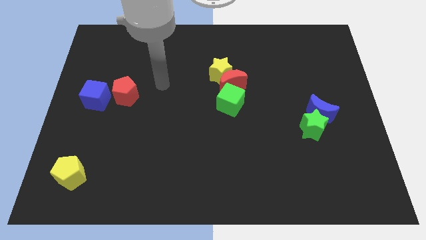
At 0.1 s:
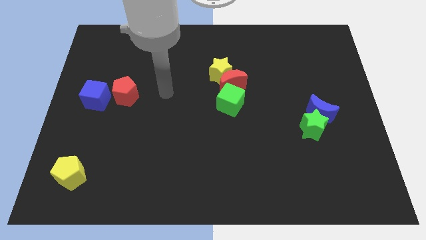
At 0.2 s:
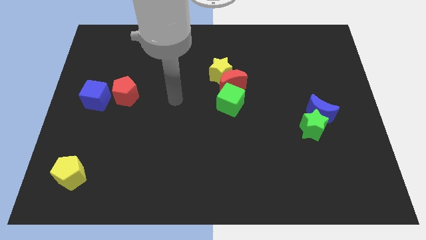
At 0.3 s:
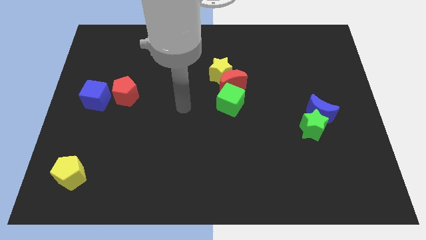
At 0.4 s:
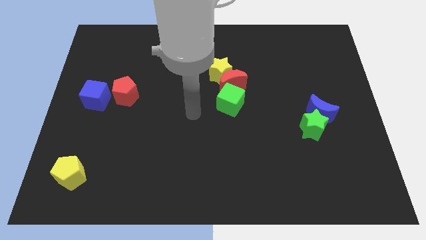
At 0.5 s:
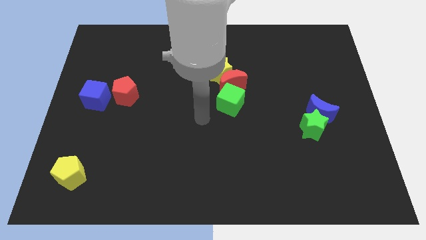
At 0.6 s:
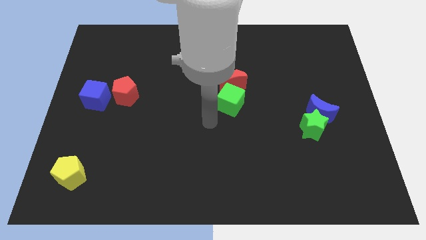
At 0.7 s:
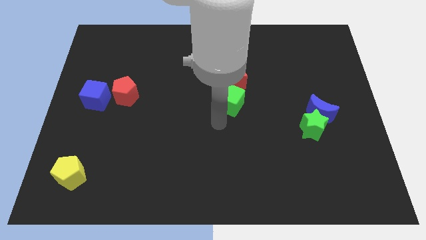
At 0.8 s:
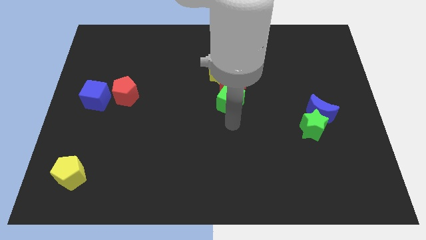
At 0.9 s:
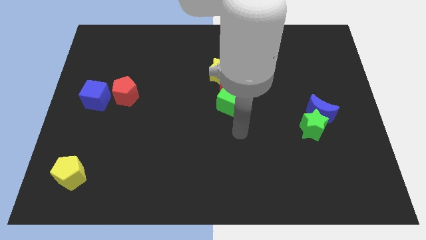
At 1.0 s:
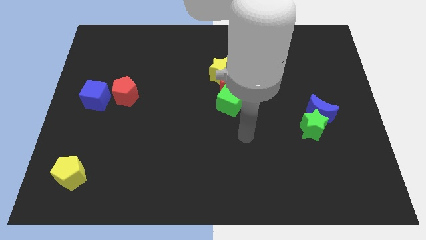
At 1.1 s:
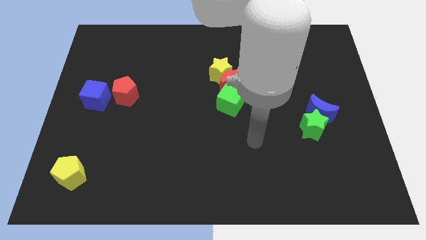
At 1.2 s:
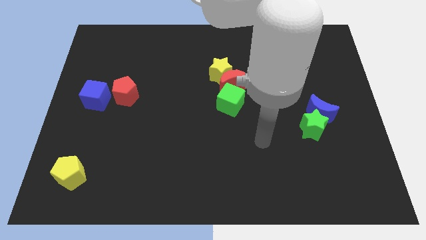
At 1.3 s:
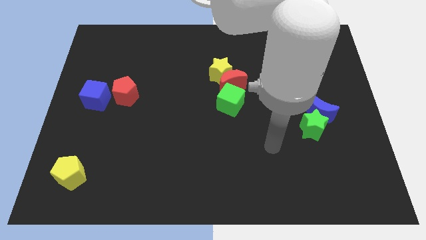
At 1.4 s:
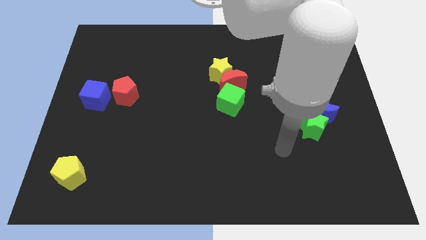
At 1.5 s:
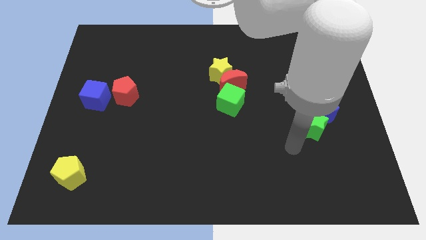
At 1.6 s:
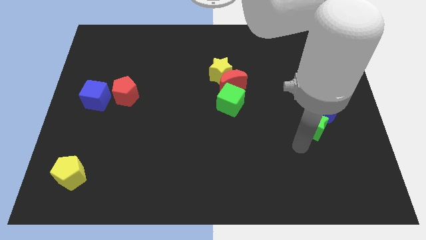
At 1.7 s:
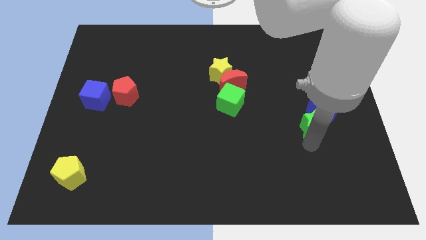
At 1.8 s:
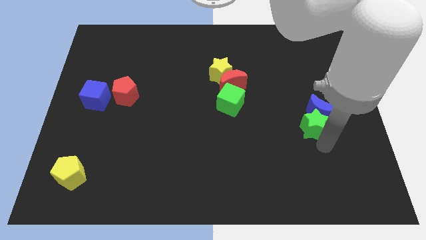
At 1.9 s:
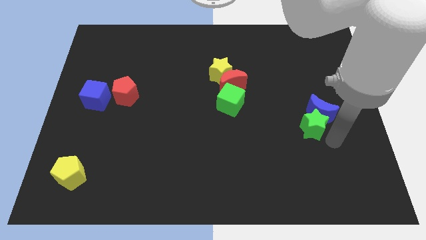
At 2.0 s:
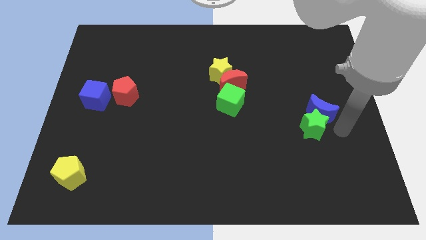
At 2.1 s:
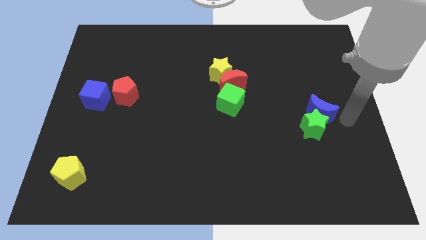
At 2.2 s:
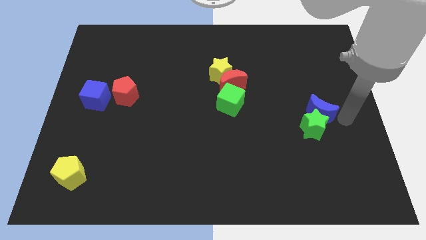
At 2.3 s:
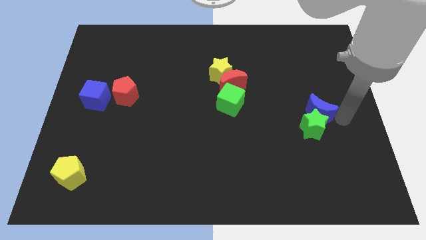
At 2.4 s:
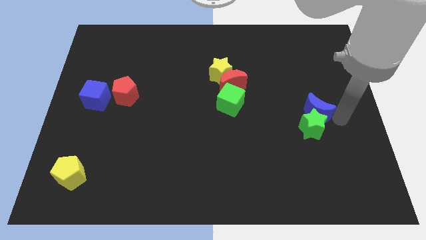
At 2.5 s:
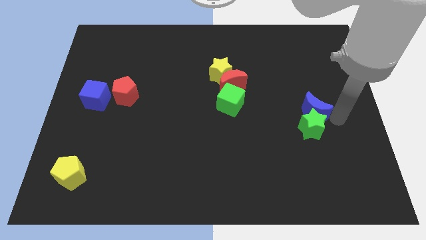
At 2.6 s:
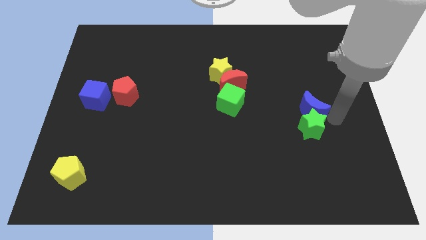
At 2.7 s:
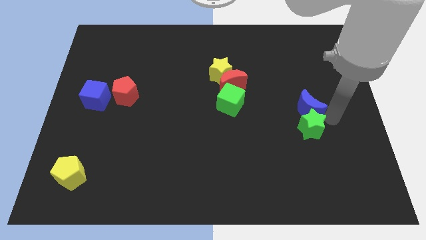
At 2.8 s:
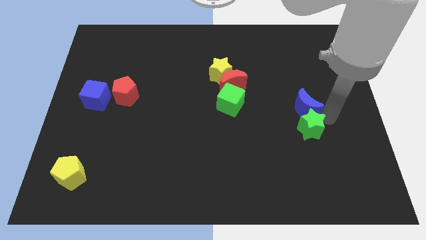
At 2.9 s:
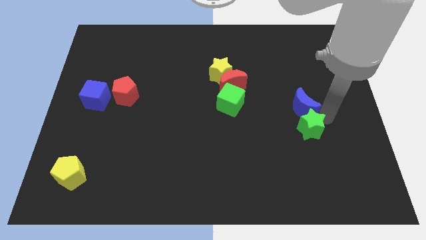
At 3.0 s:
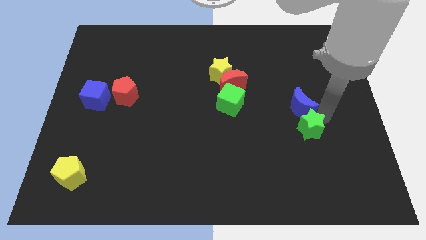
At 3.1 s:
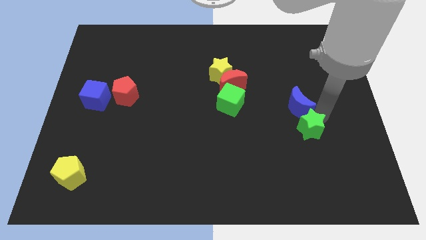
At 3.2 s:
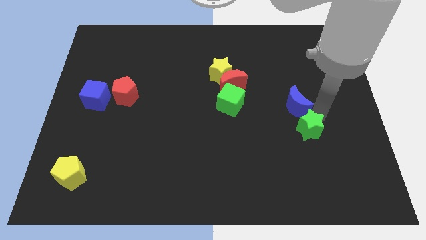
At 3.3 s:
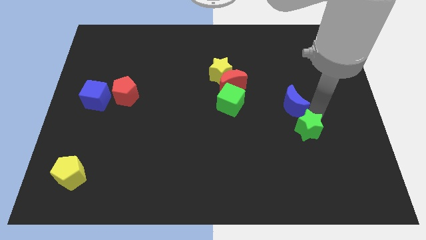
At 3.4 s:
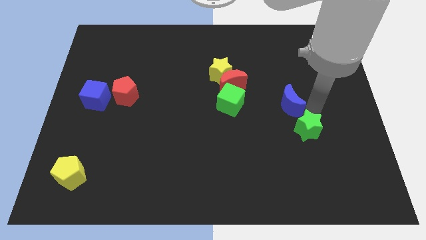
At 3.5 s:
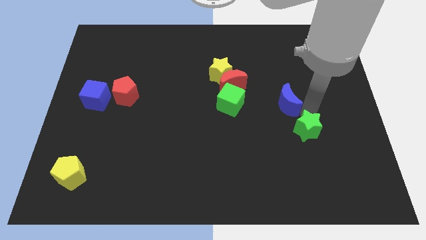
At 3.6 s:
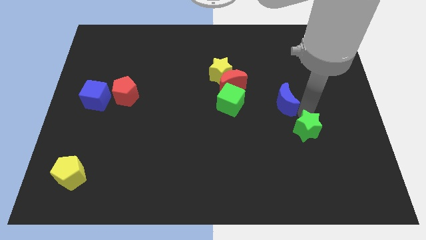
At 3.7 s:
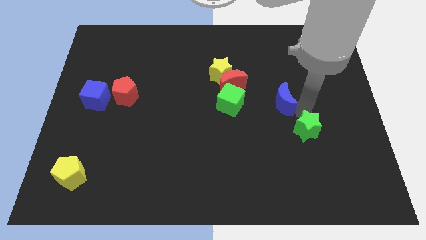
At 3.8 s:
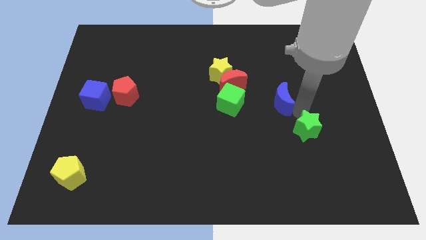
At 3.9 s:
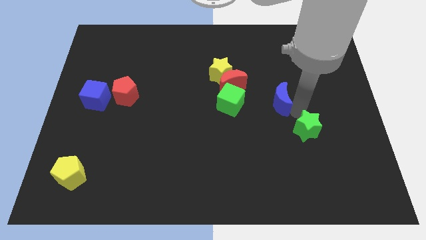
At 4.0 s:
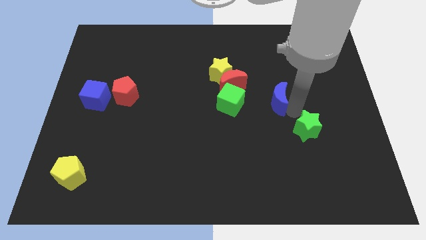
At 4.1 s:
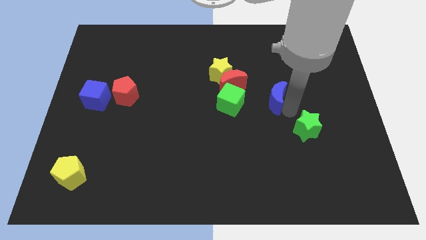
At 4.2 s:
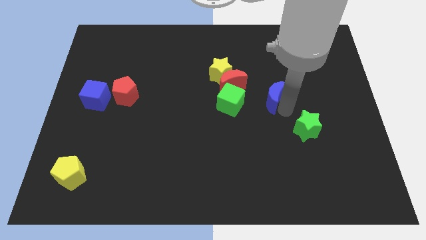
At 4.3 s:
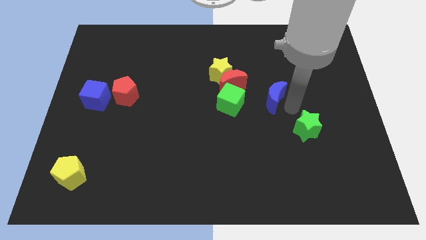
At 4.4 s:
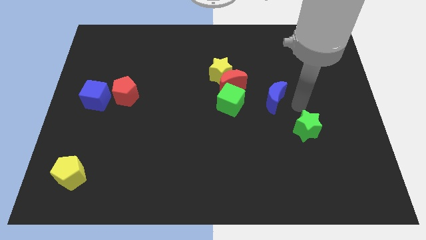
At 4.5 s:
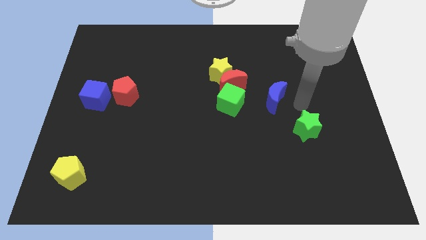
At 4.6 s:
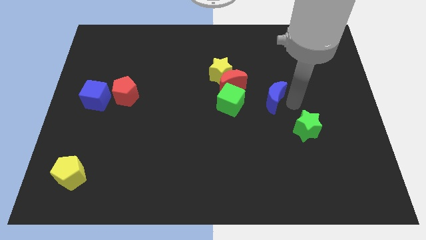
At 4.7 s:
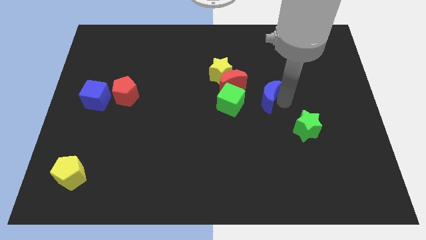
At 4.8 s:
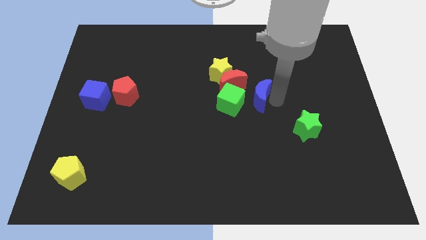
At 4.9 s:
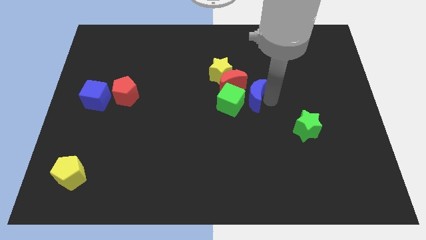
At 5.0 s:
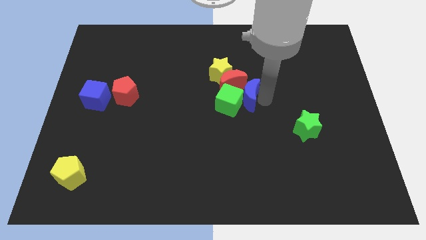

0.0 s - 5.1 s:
push the blue moon towards the red moon

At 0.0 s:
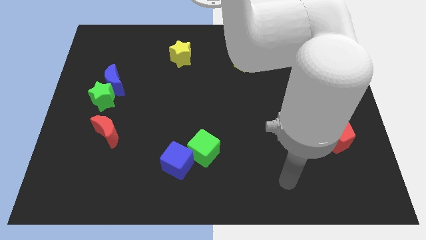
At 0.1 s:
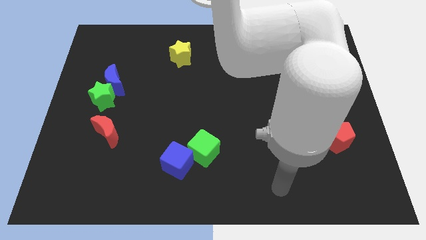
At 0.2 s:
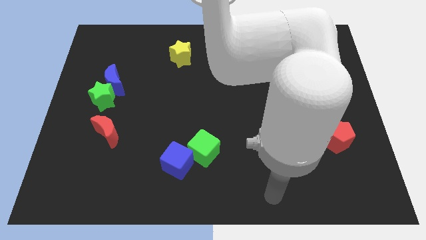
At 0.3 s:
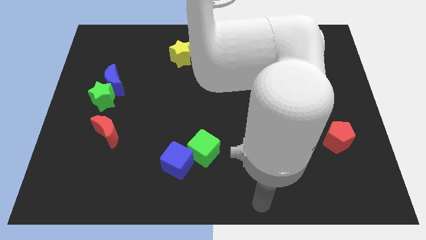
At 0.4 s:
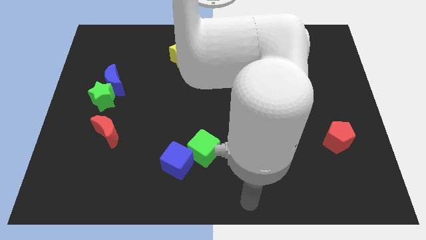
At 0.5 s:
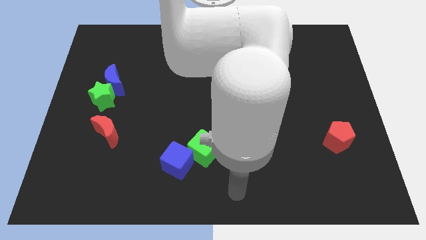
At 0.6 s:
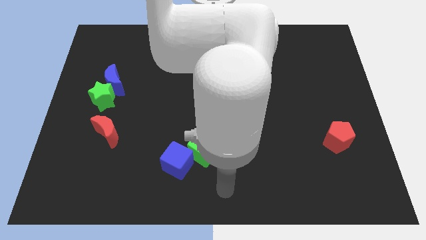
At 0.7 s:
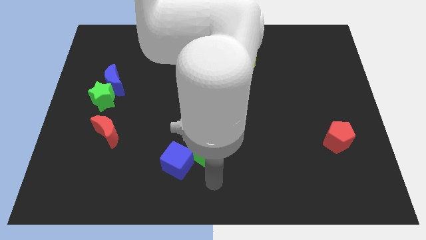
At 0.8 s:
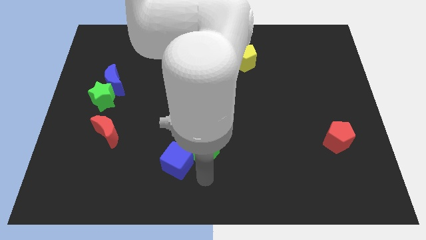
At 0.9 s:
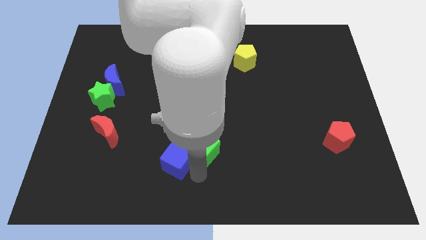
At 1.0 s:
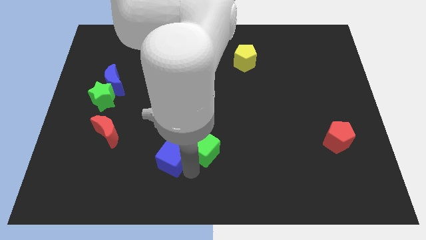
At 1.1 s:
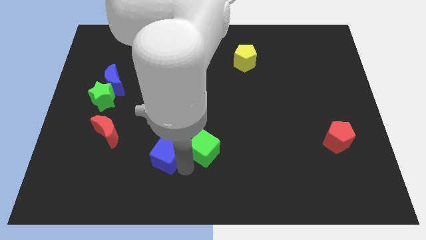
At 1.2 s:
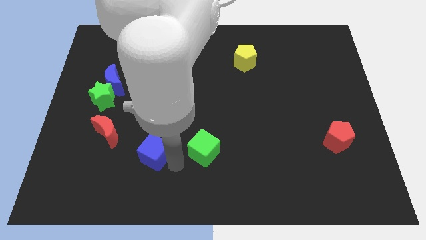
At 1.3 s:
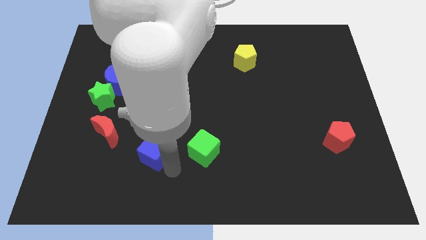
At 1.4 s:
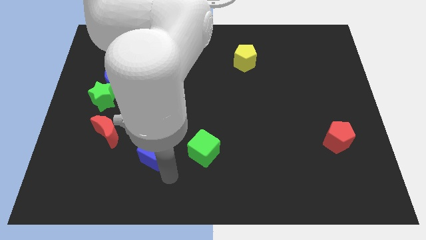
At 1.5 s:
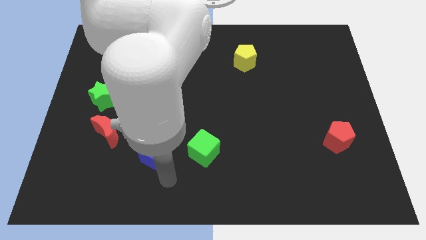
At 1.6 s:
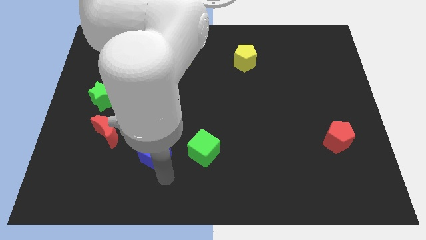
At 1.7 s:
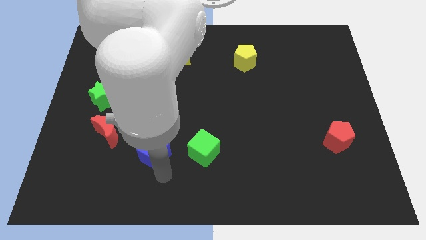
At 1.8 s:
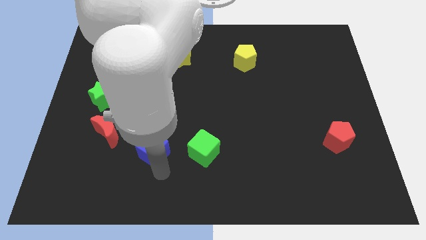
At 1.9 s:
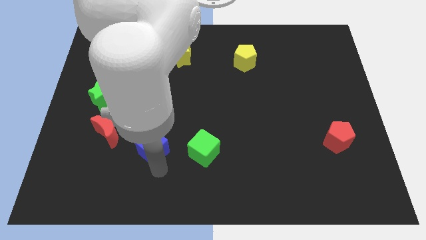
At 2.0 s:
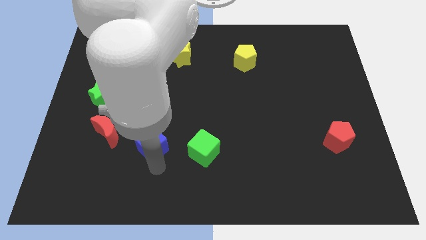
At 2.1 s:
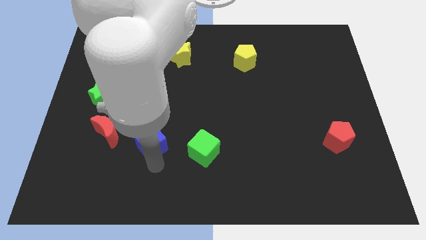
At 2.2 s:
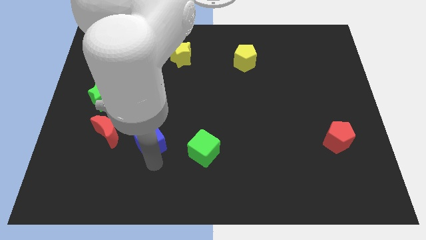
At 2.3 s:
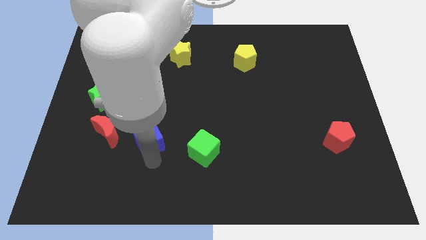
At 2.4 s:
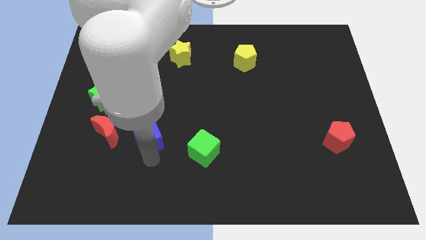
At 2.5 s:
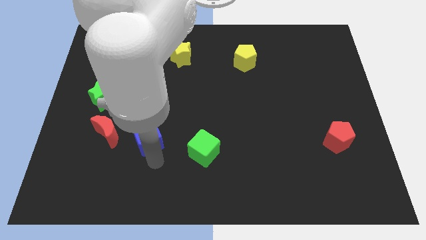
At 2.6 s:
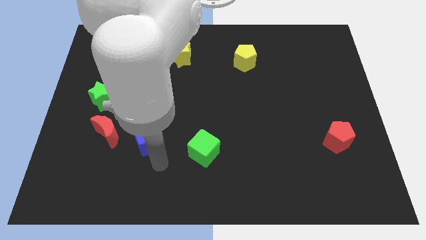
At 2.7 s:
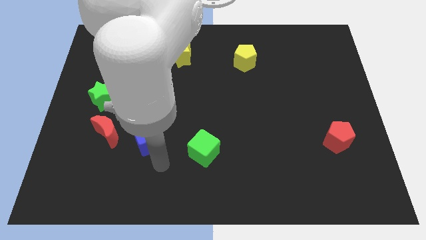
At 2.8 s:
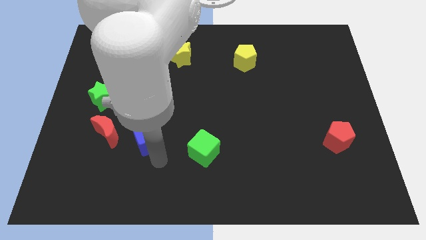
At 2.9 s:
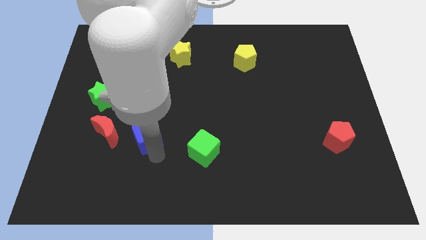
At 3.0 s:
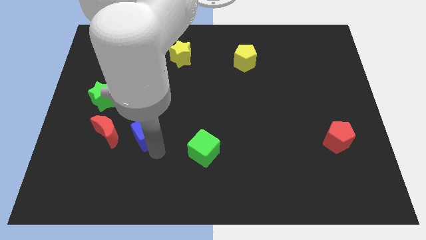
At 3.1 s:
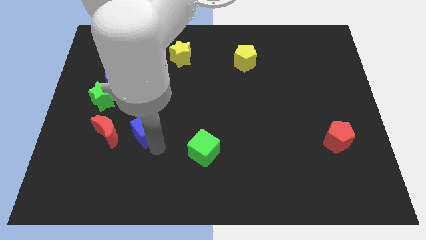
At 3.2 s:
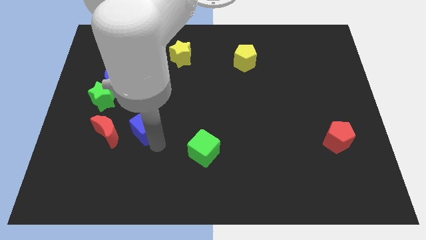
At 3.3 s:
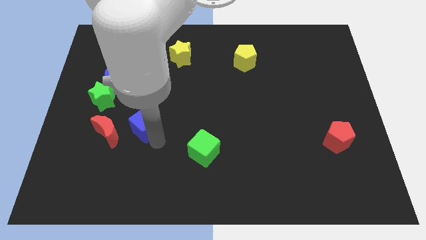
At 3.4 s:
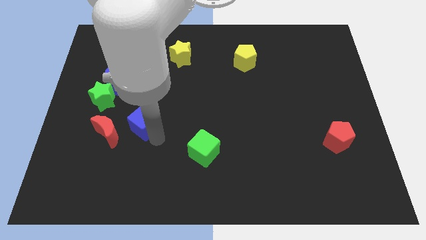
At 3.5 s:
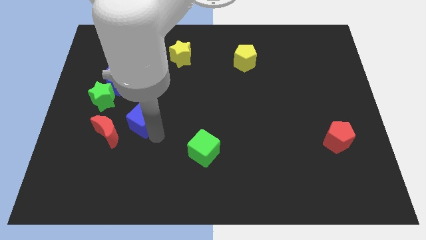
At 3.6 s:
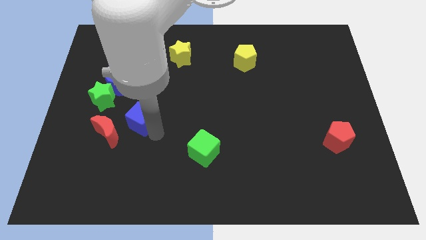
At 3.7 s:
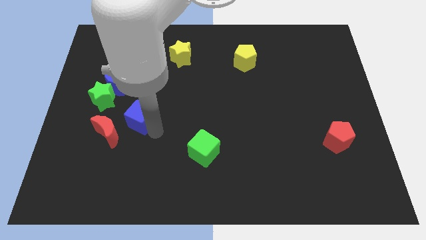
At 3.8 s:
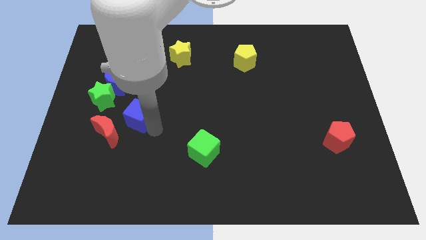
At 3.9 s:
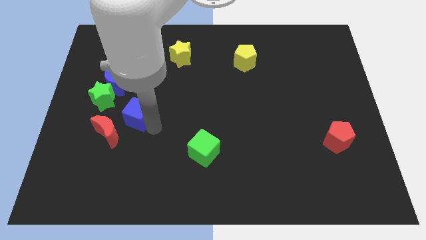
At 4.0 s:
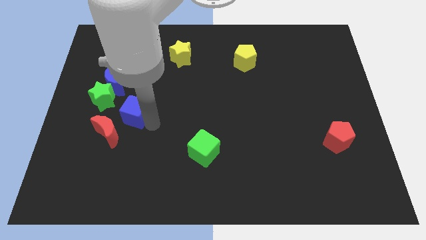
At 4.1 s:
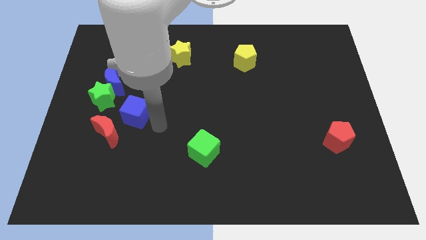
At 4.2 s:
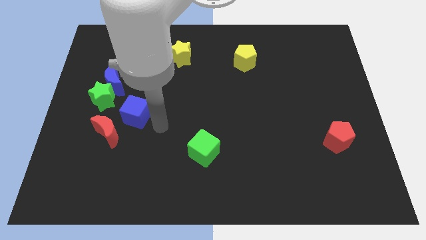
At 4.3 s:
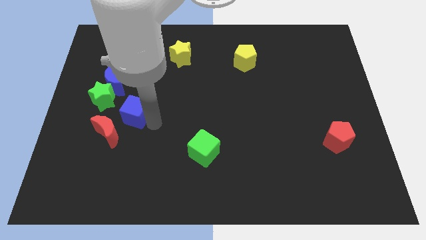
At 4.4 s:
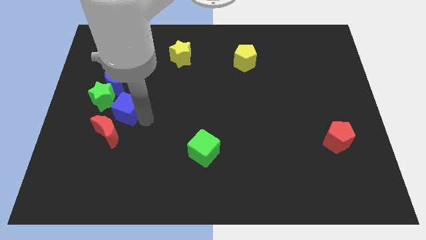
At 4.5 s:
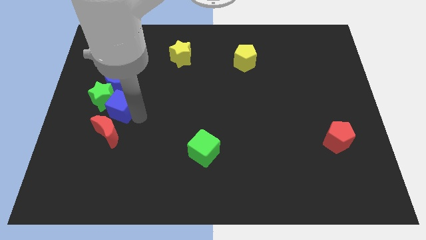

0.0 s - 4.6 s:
push the blue cube next to the green star
